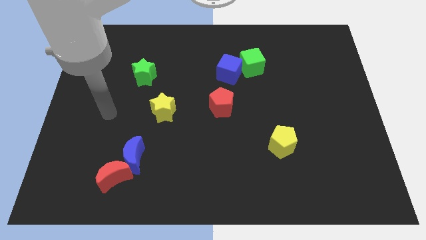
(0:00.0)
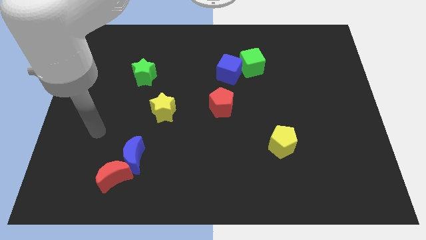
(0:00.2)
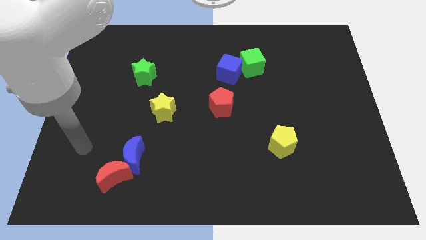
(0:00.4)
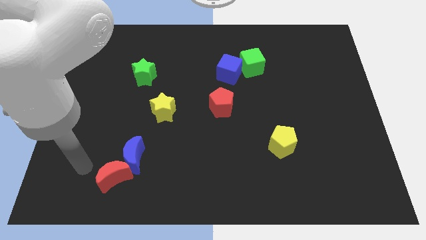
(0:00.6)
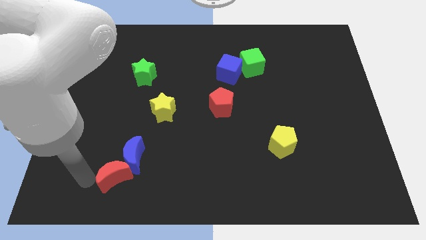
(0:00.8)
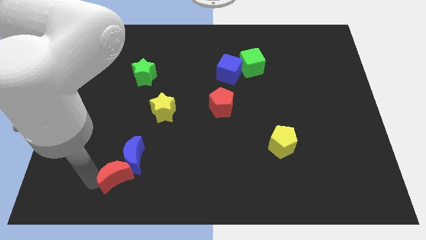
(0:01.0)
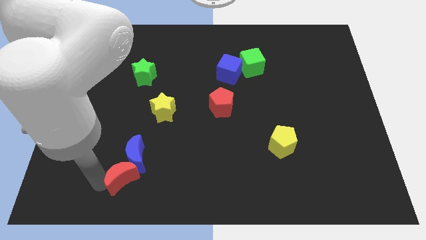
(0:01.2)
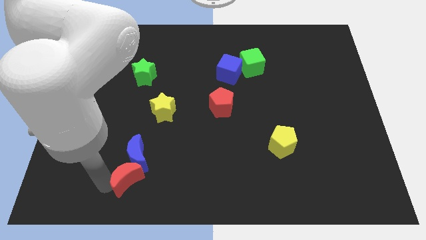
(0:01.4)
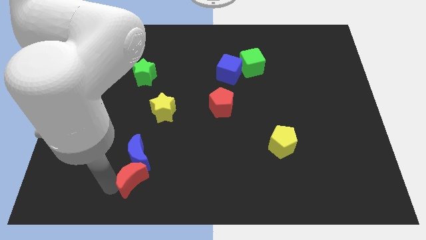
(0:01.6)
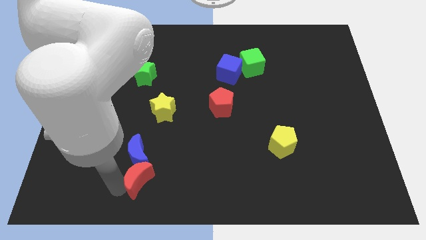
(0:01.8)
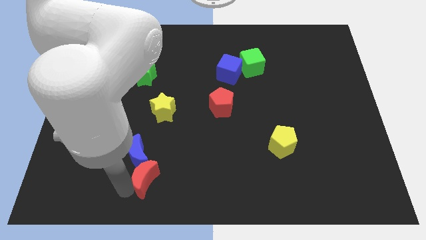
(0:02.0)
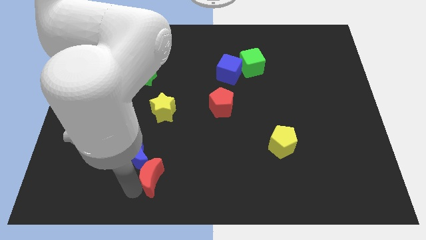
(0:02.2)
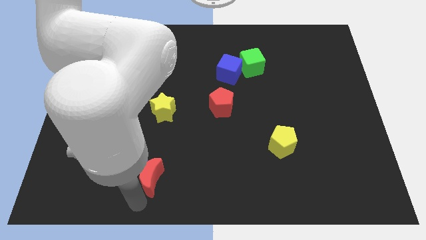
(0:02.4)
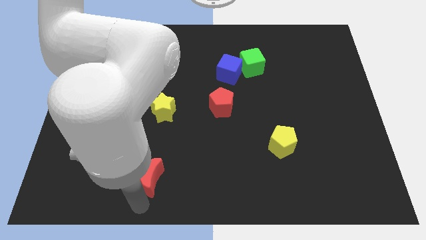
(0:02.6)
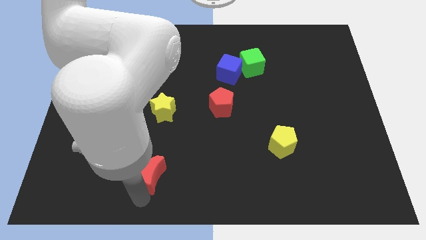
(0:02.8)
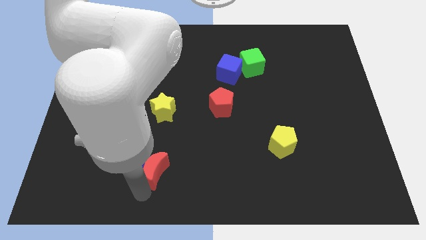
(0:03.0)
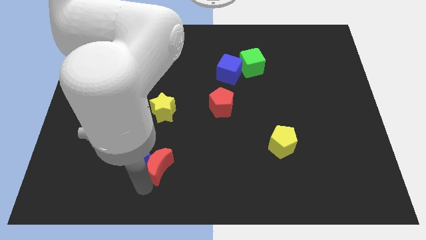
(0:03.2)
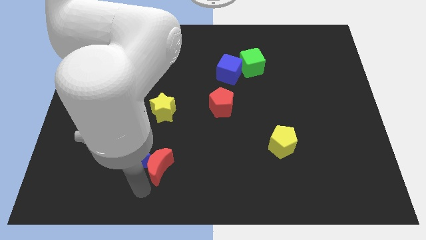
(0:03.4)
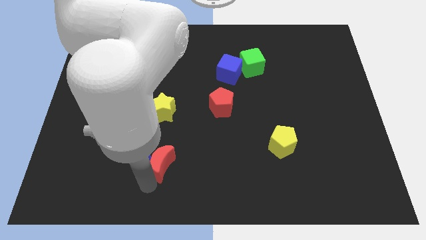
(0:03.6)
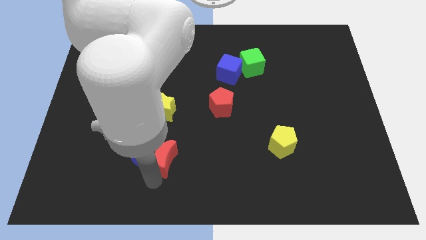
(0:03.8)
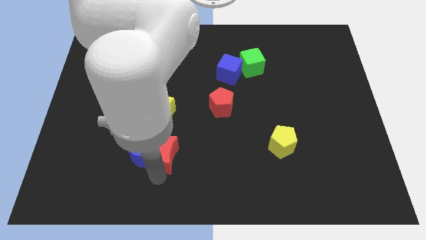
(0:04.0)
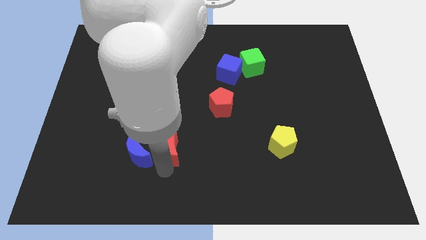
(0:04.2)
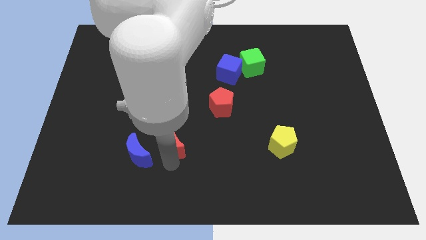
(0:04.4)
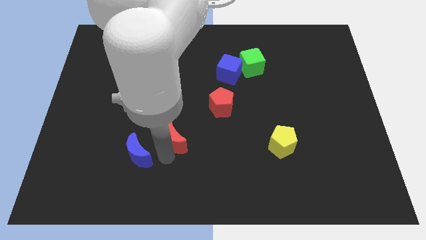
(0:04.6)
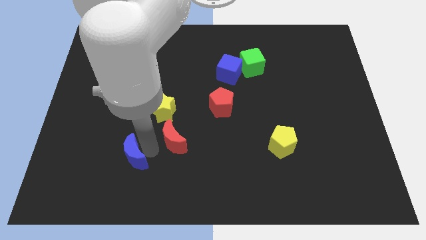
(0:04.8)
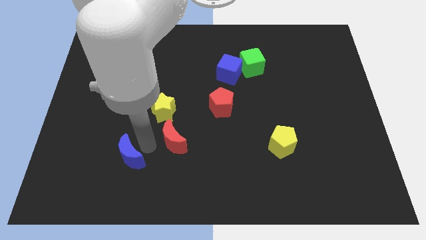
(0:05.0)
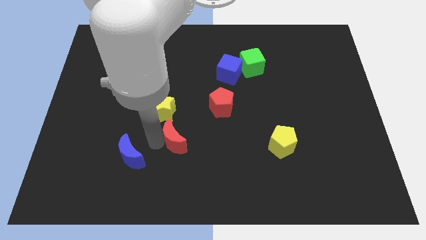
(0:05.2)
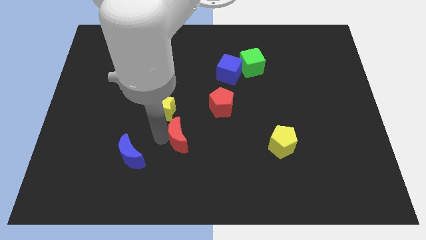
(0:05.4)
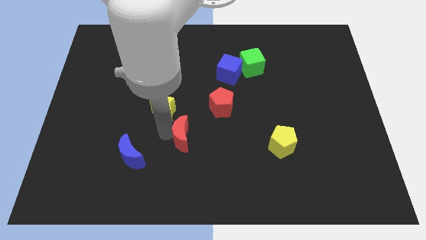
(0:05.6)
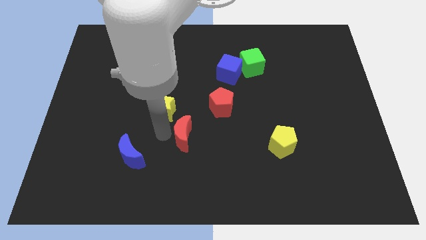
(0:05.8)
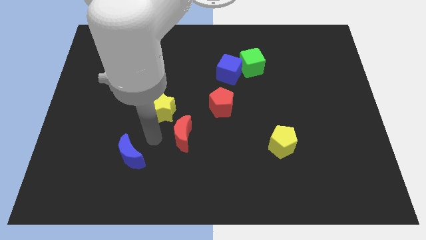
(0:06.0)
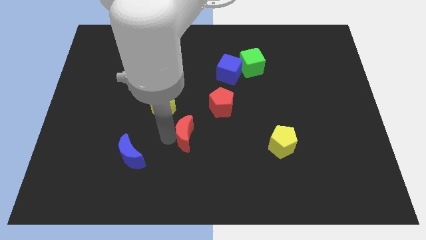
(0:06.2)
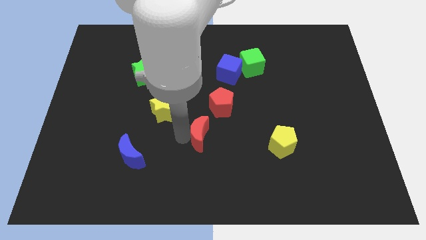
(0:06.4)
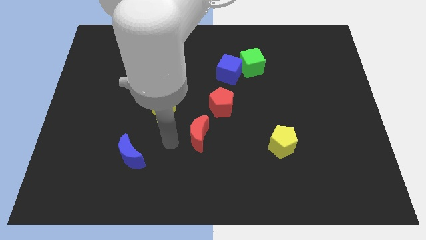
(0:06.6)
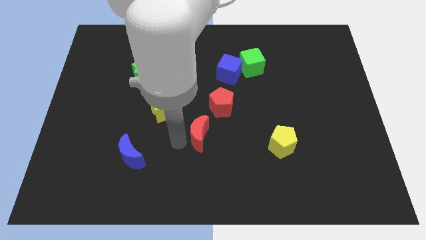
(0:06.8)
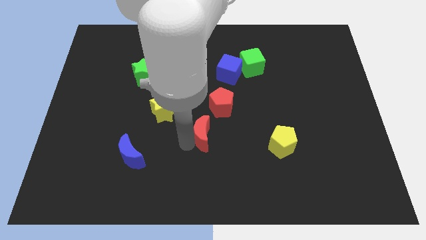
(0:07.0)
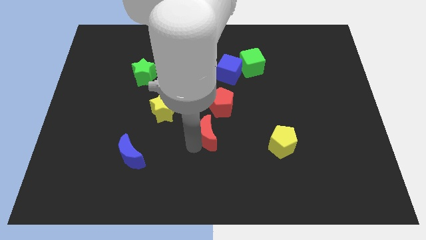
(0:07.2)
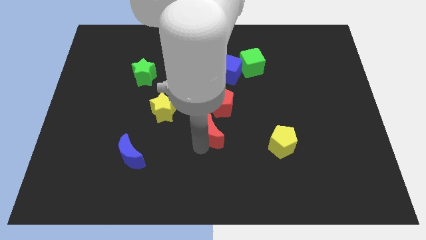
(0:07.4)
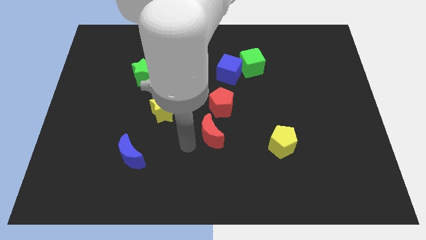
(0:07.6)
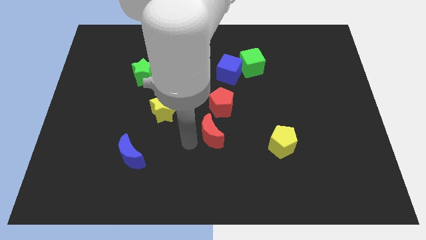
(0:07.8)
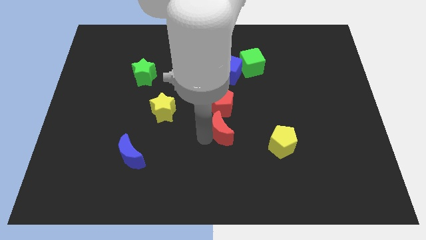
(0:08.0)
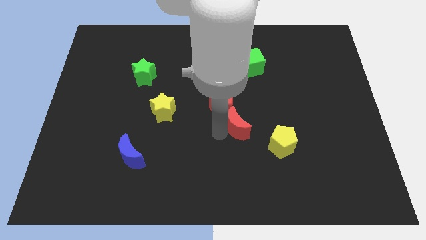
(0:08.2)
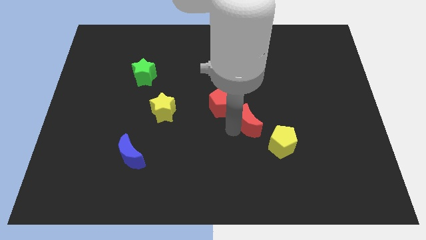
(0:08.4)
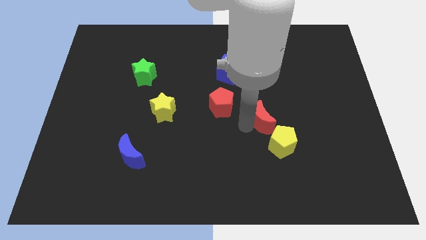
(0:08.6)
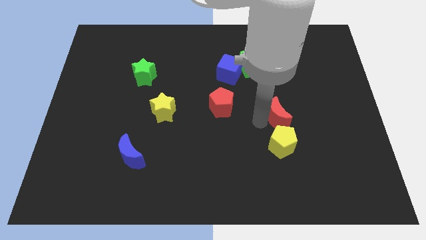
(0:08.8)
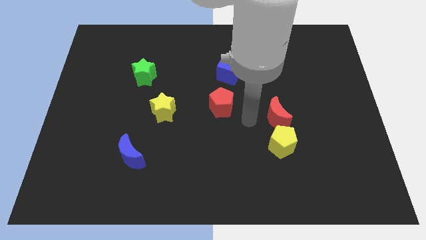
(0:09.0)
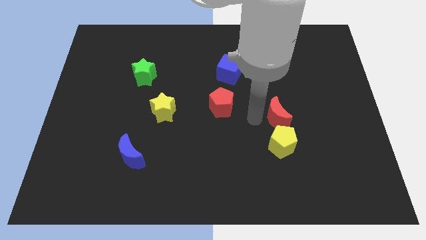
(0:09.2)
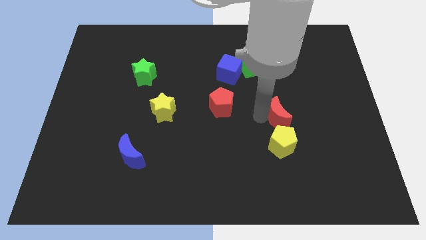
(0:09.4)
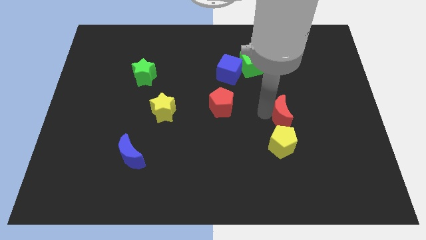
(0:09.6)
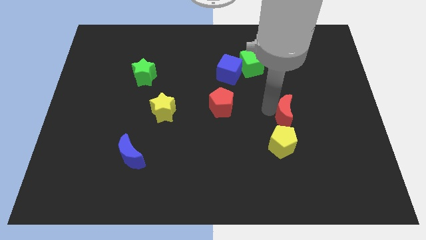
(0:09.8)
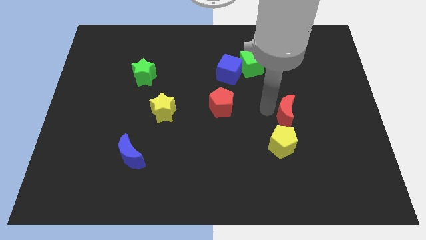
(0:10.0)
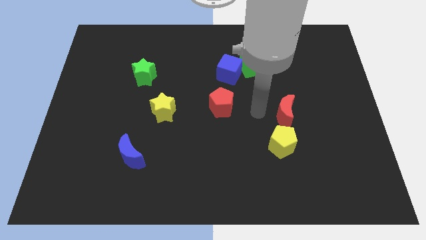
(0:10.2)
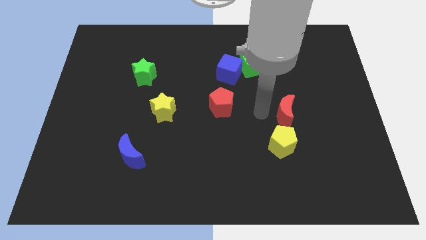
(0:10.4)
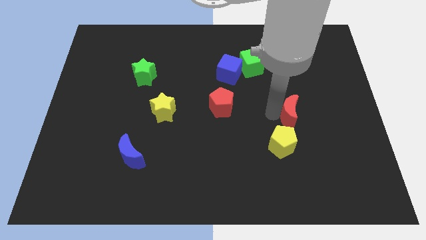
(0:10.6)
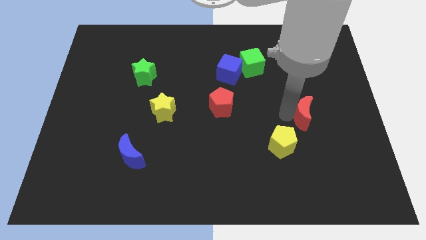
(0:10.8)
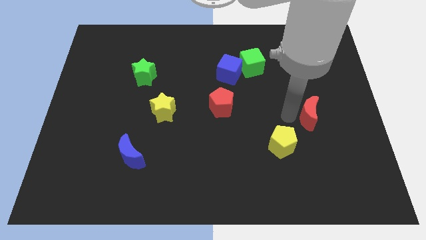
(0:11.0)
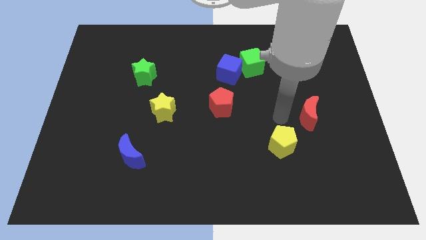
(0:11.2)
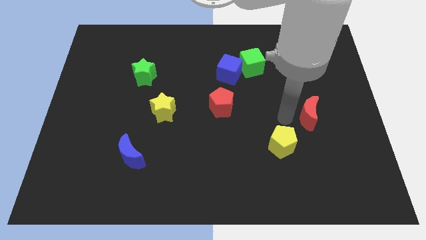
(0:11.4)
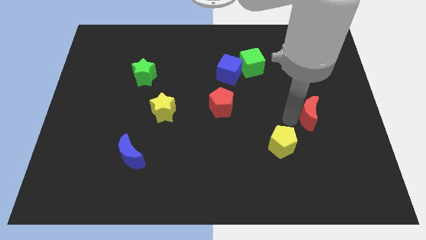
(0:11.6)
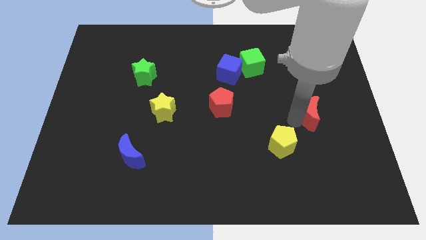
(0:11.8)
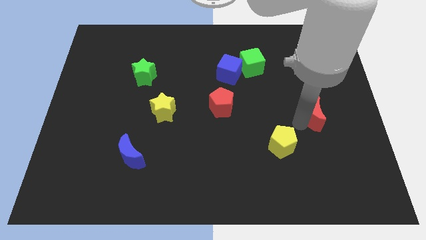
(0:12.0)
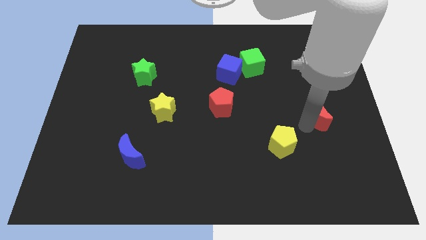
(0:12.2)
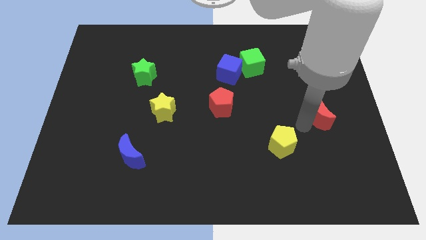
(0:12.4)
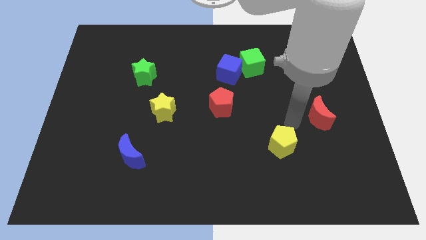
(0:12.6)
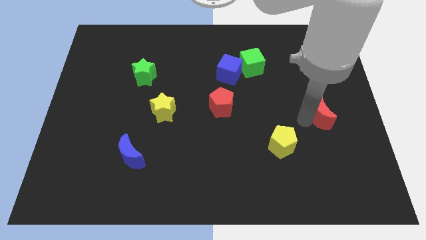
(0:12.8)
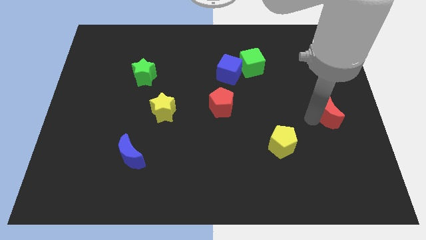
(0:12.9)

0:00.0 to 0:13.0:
slide the red moon to the right side of the board

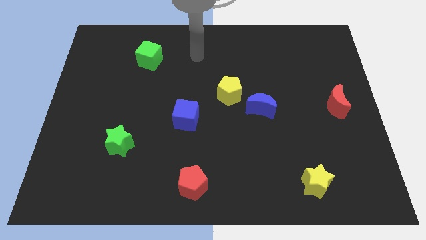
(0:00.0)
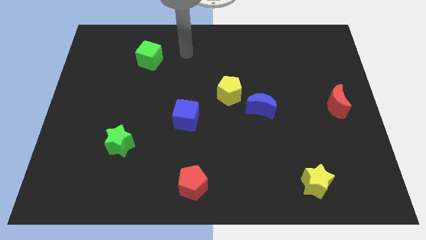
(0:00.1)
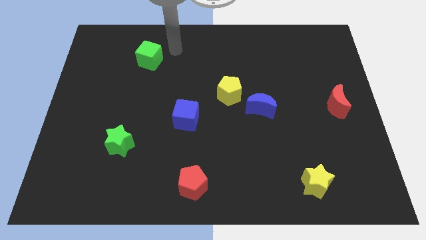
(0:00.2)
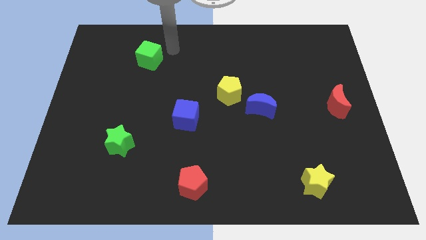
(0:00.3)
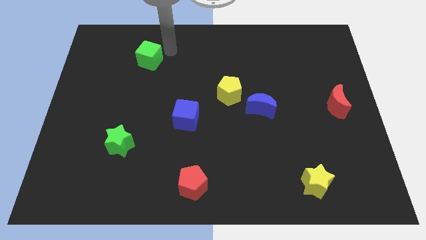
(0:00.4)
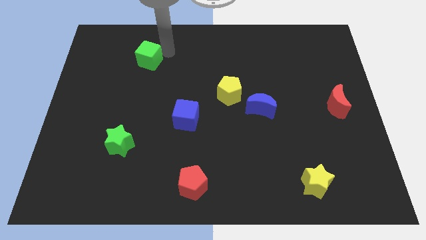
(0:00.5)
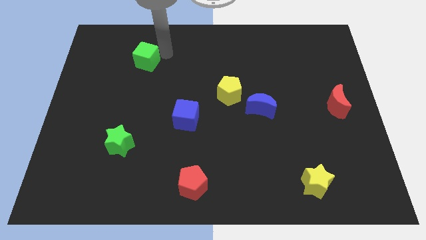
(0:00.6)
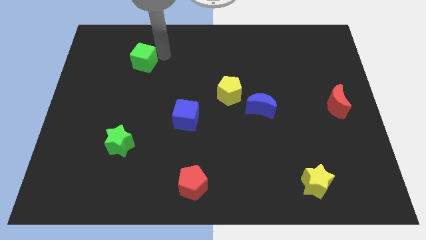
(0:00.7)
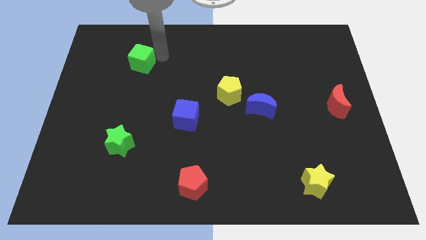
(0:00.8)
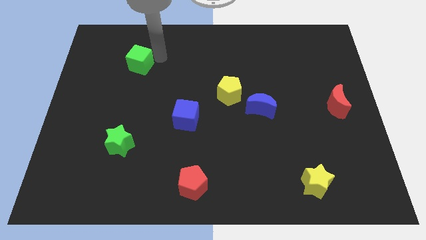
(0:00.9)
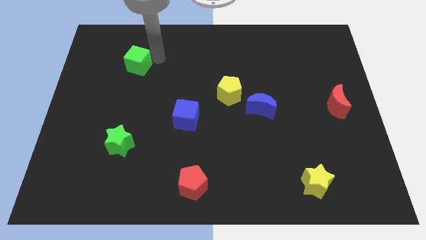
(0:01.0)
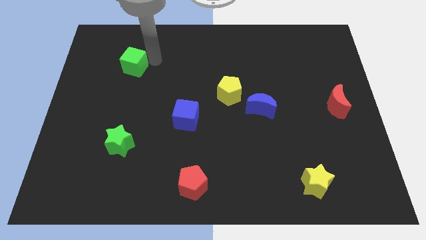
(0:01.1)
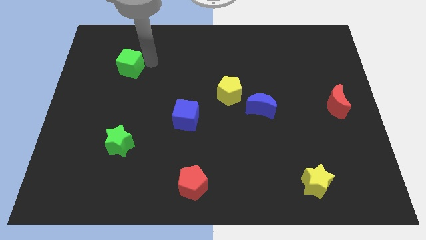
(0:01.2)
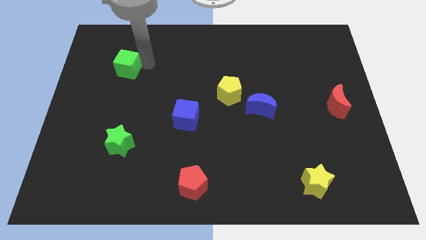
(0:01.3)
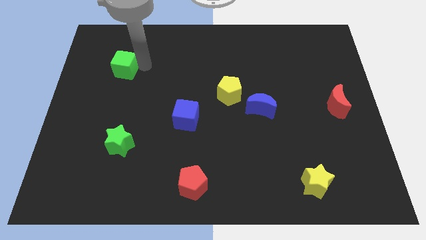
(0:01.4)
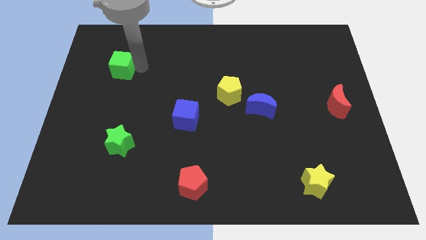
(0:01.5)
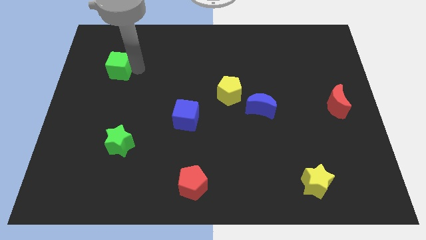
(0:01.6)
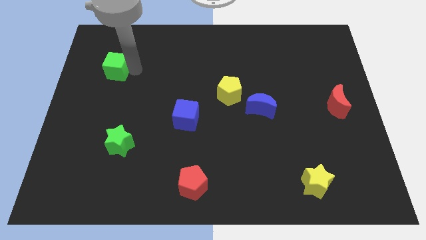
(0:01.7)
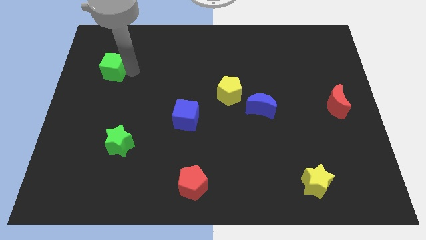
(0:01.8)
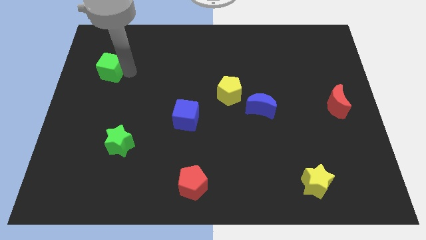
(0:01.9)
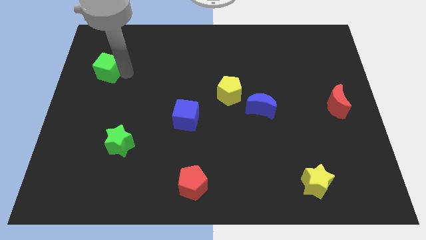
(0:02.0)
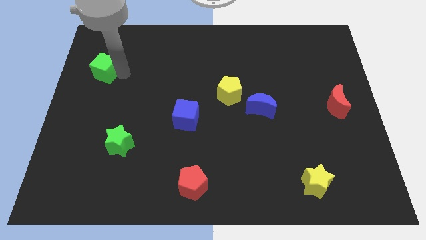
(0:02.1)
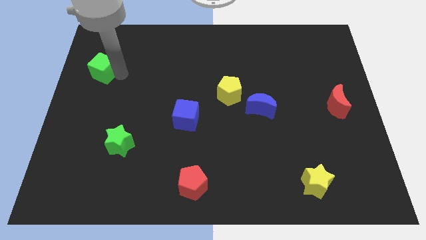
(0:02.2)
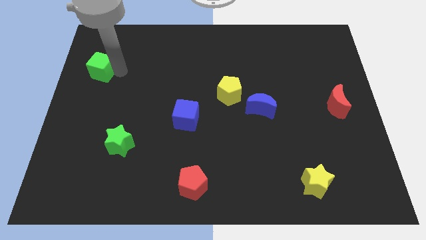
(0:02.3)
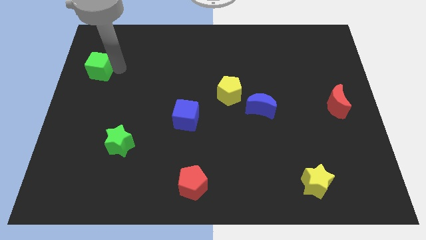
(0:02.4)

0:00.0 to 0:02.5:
push the green cube to the left side
